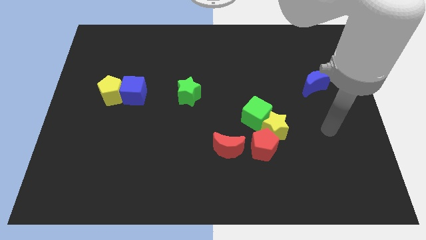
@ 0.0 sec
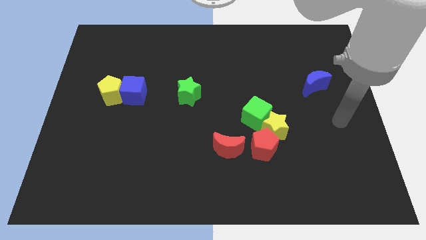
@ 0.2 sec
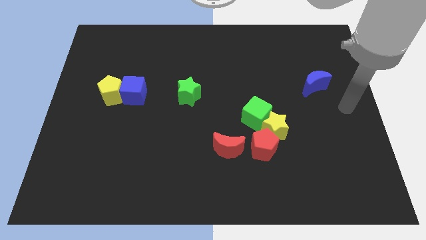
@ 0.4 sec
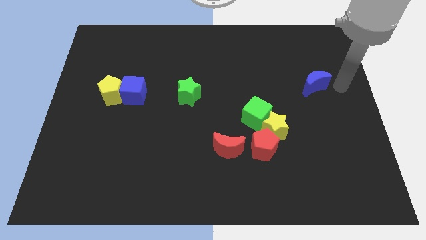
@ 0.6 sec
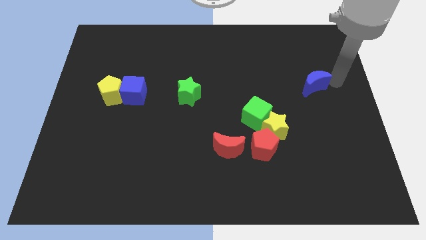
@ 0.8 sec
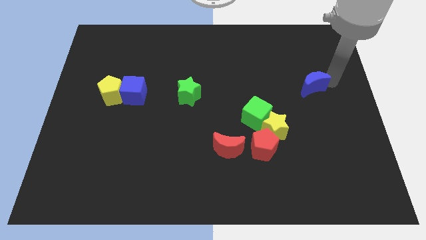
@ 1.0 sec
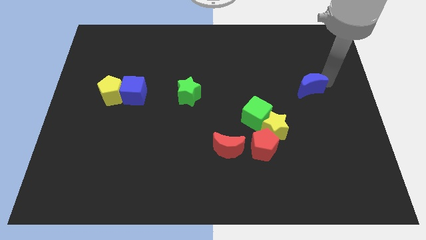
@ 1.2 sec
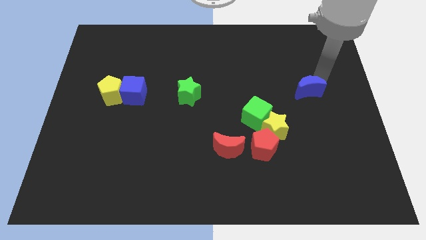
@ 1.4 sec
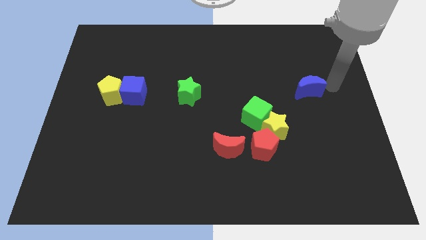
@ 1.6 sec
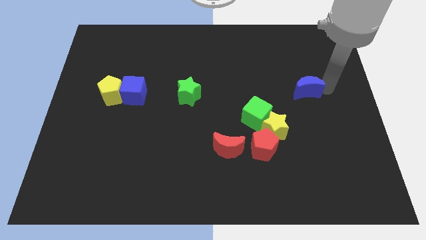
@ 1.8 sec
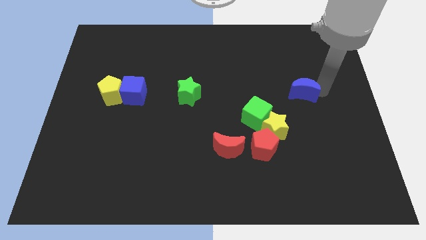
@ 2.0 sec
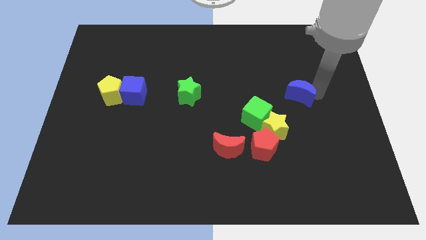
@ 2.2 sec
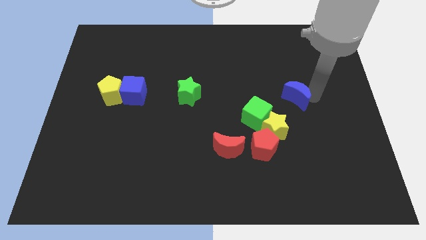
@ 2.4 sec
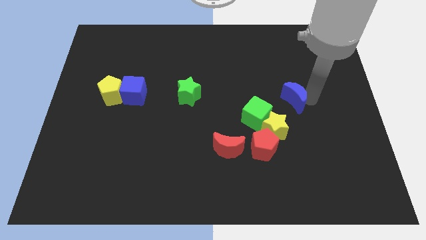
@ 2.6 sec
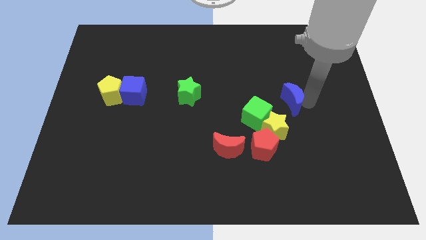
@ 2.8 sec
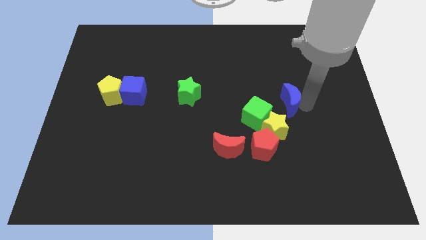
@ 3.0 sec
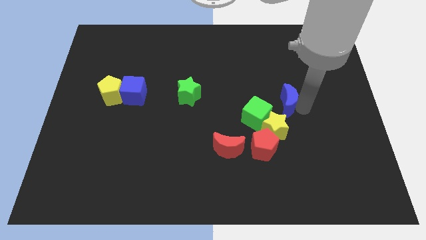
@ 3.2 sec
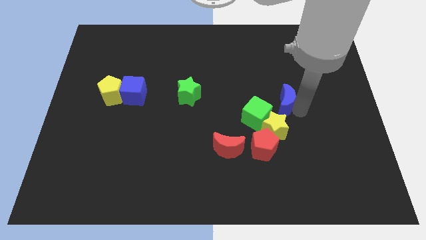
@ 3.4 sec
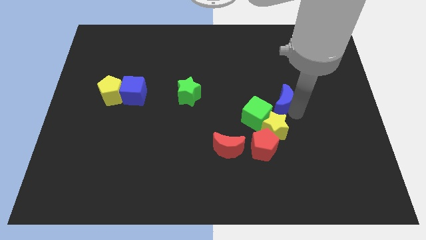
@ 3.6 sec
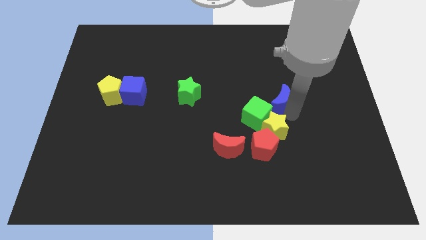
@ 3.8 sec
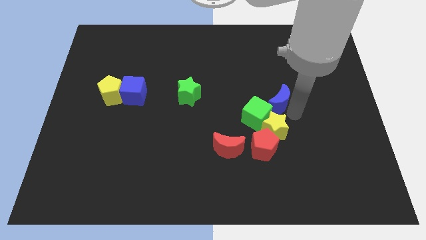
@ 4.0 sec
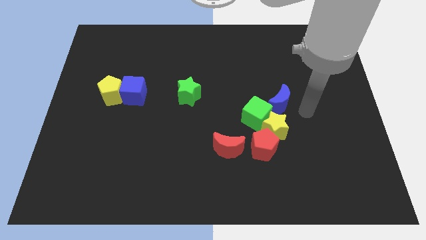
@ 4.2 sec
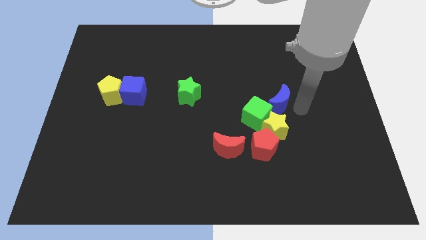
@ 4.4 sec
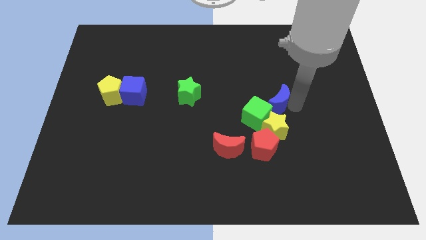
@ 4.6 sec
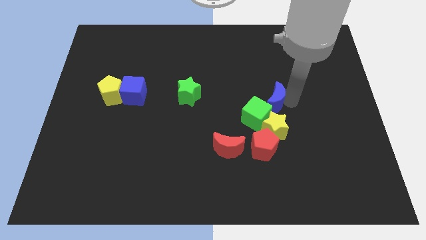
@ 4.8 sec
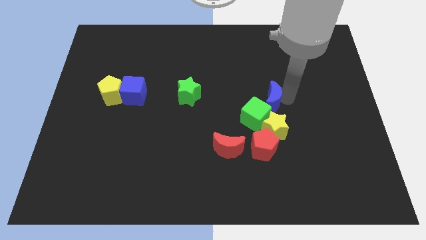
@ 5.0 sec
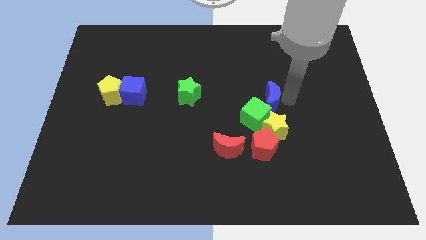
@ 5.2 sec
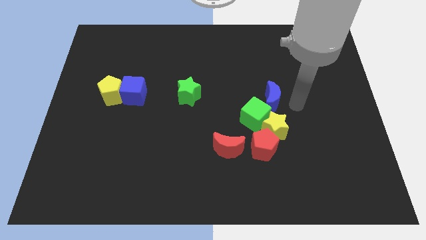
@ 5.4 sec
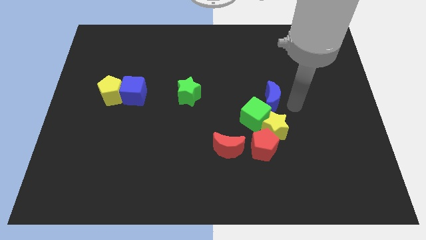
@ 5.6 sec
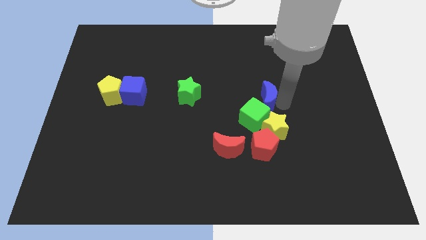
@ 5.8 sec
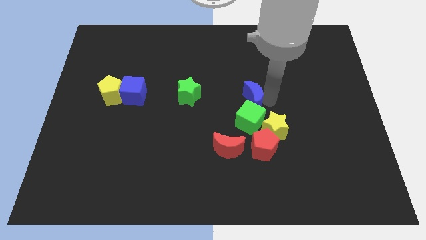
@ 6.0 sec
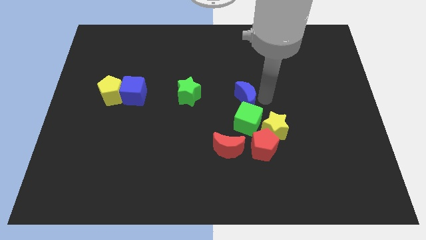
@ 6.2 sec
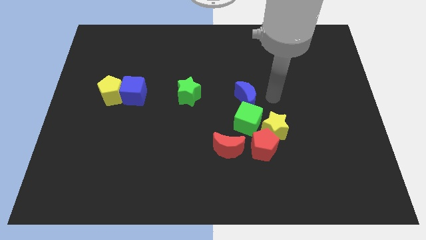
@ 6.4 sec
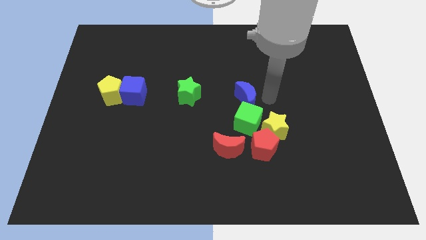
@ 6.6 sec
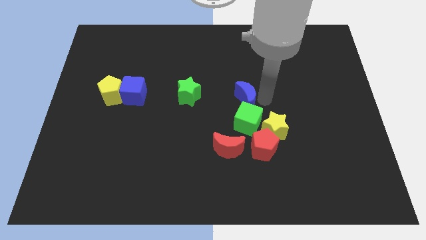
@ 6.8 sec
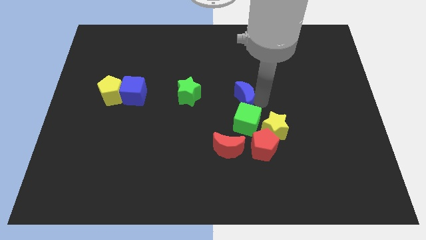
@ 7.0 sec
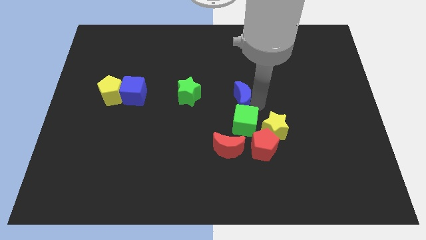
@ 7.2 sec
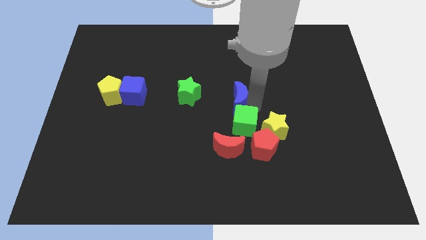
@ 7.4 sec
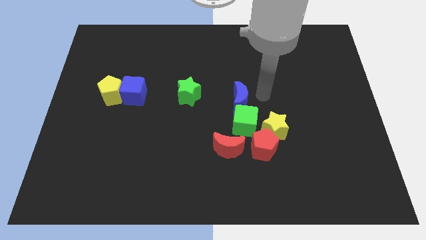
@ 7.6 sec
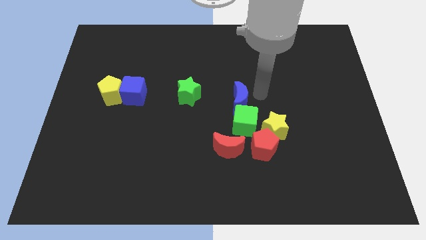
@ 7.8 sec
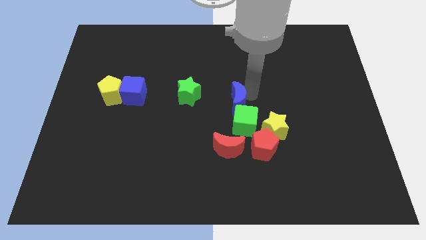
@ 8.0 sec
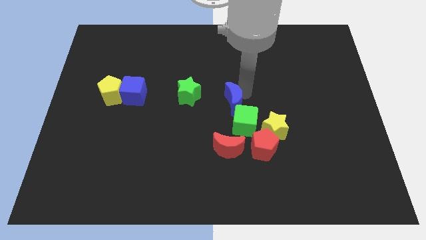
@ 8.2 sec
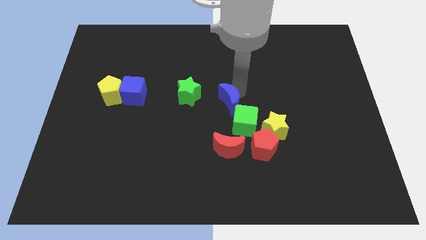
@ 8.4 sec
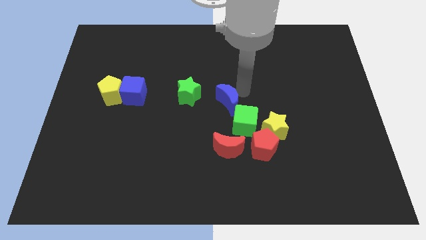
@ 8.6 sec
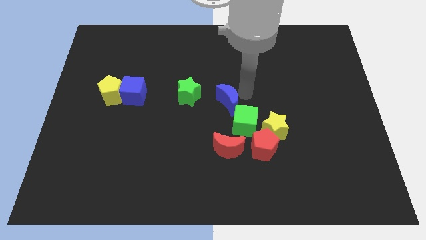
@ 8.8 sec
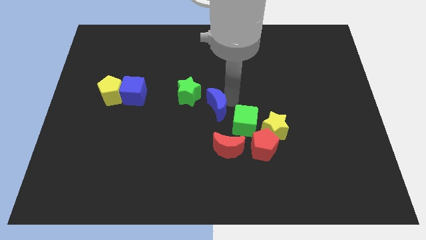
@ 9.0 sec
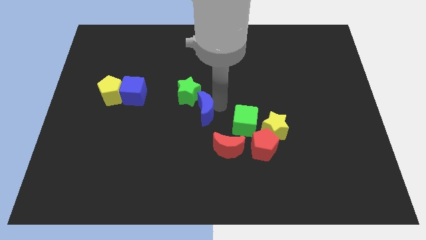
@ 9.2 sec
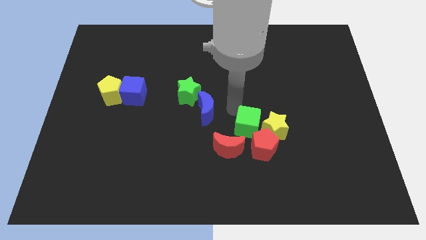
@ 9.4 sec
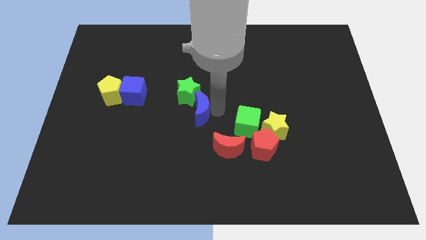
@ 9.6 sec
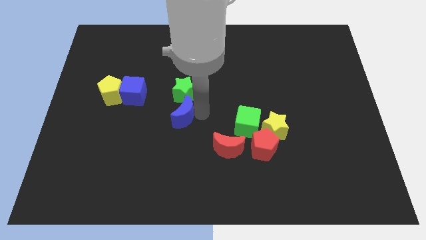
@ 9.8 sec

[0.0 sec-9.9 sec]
slide the blue moon diagonally down and to the left of the green star

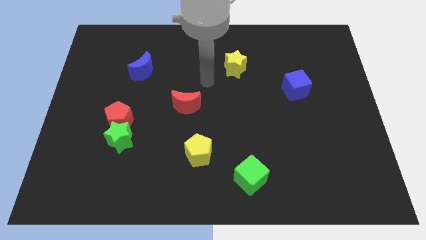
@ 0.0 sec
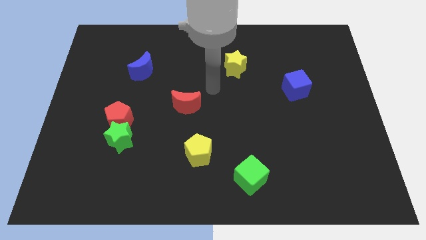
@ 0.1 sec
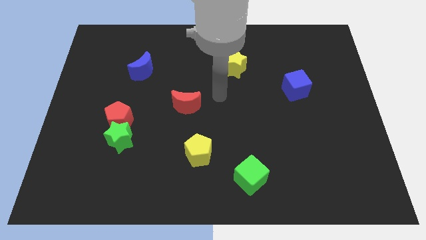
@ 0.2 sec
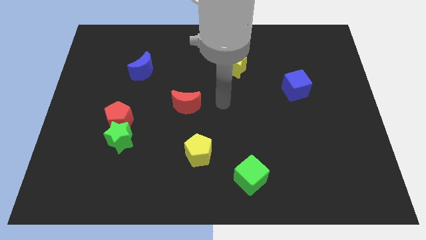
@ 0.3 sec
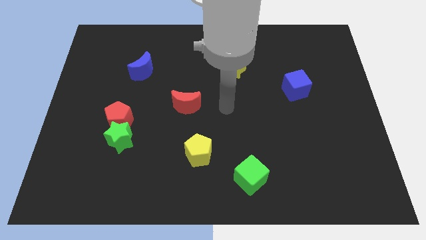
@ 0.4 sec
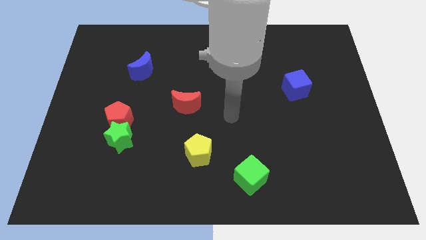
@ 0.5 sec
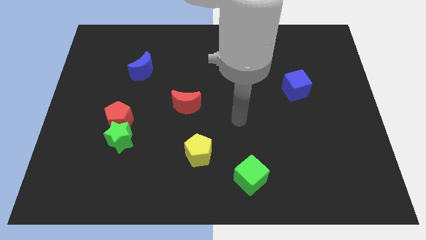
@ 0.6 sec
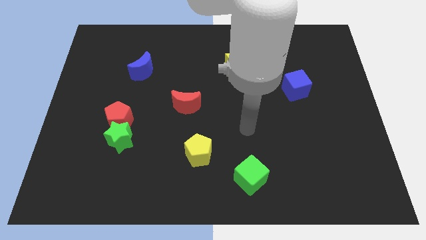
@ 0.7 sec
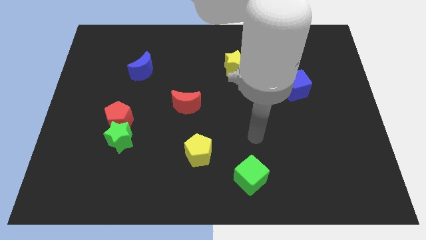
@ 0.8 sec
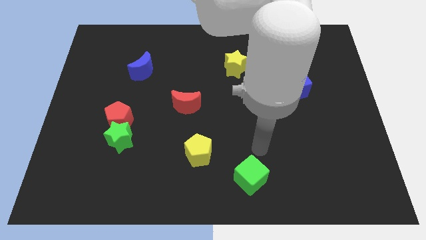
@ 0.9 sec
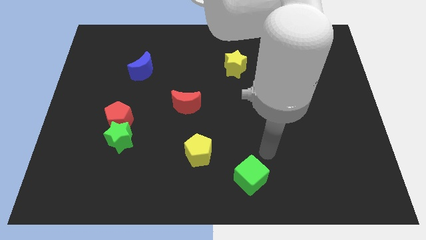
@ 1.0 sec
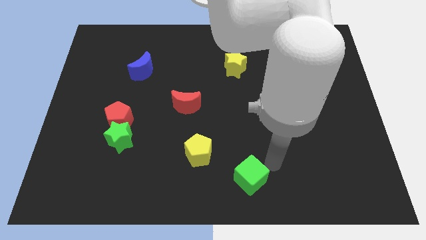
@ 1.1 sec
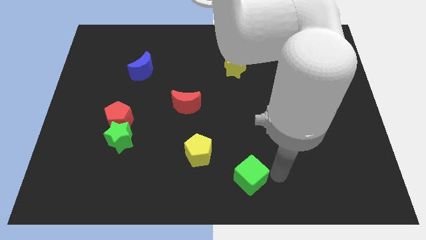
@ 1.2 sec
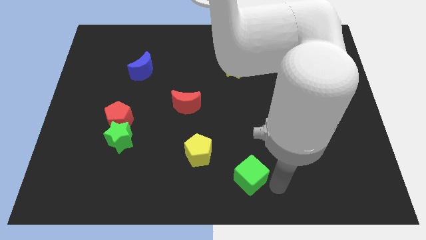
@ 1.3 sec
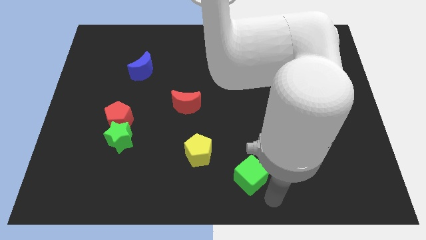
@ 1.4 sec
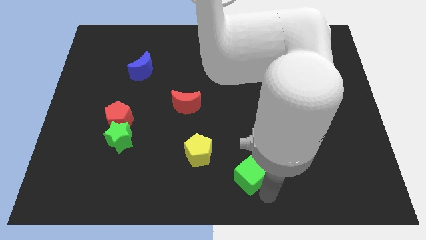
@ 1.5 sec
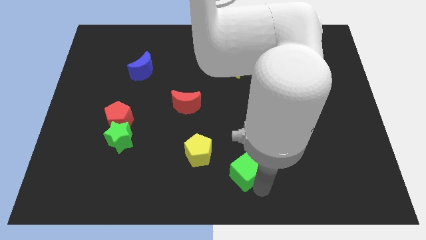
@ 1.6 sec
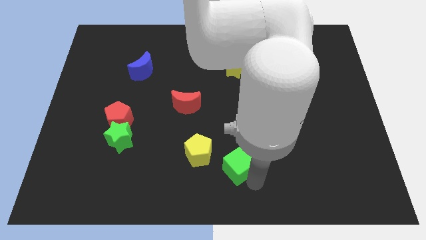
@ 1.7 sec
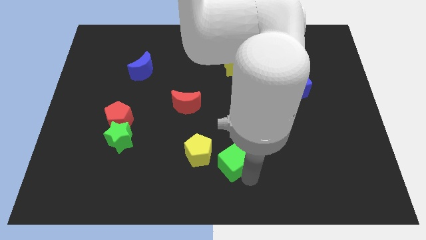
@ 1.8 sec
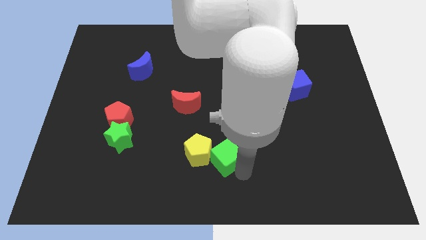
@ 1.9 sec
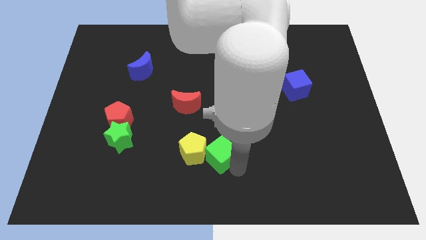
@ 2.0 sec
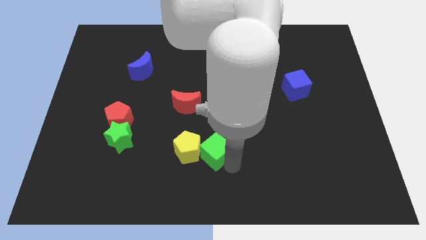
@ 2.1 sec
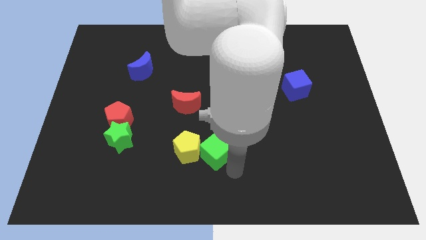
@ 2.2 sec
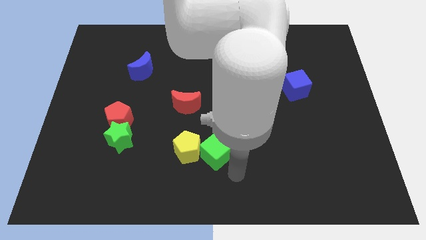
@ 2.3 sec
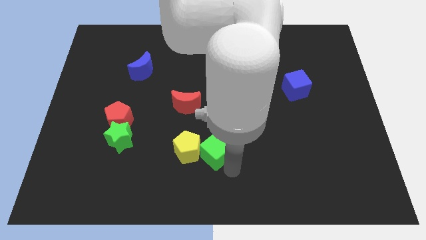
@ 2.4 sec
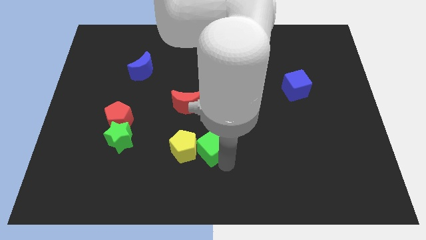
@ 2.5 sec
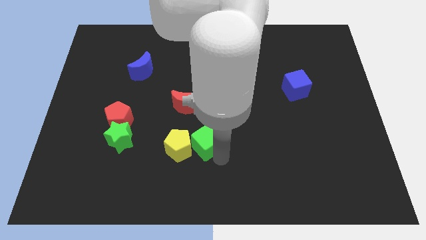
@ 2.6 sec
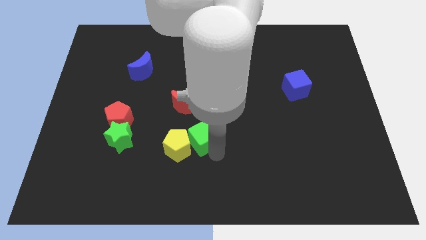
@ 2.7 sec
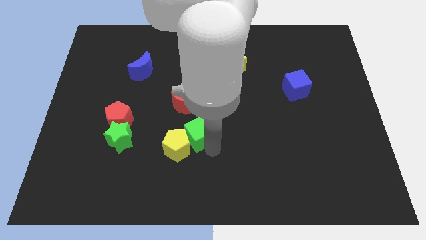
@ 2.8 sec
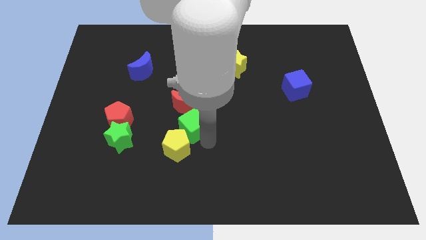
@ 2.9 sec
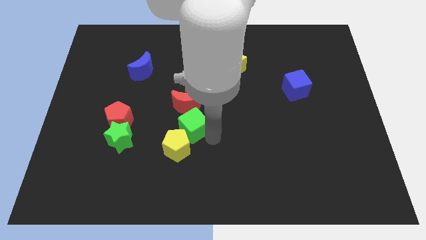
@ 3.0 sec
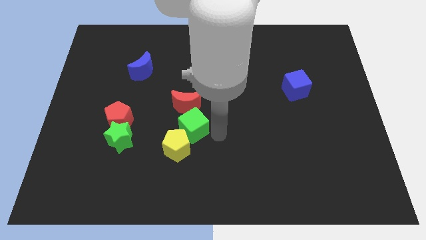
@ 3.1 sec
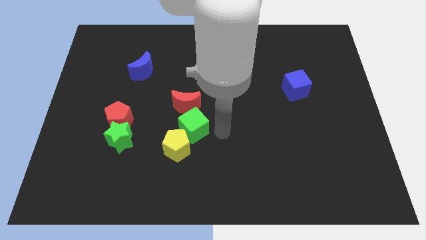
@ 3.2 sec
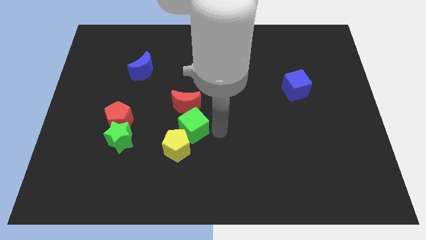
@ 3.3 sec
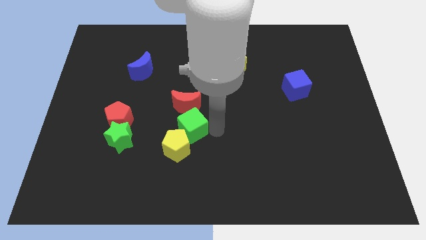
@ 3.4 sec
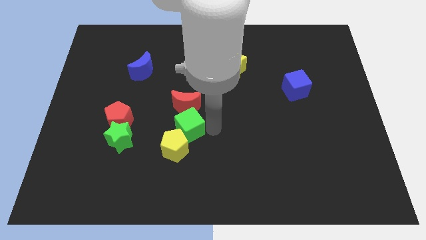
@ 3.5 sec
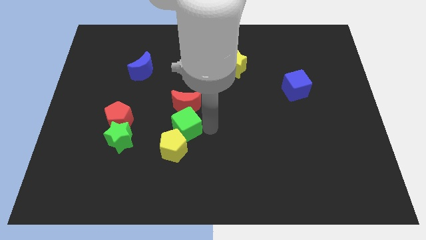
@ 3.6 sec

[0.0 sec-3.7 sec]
slide the green cube diagonally down and to the left of the red moon
